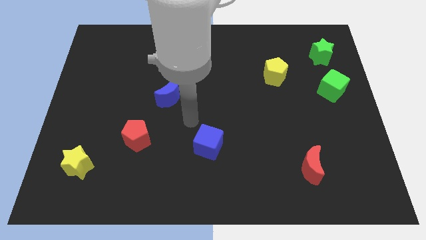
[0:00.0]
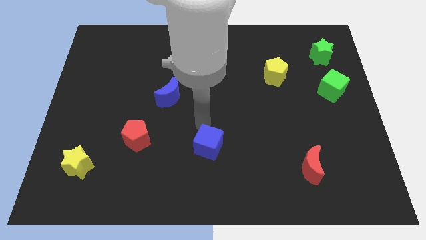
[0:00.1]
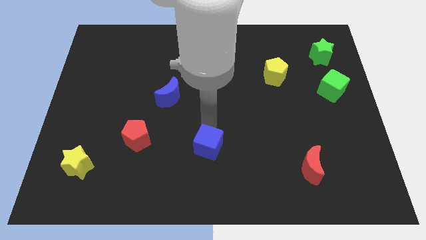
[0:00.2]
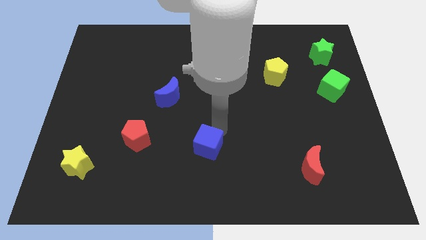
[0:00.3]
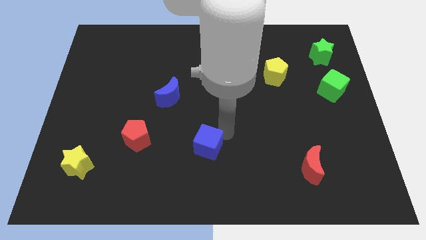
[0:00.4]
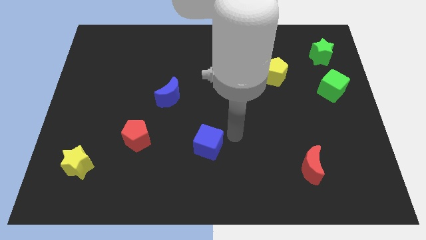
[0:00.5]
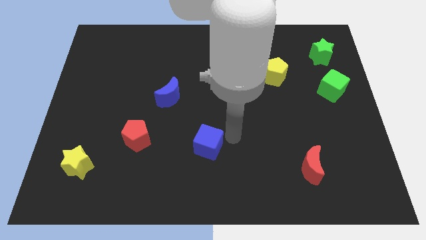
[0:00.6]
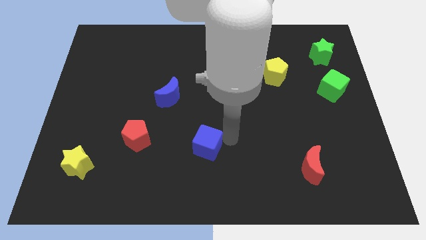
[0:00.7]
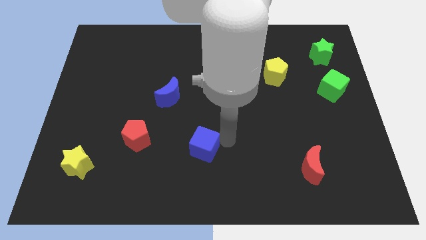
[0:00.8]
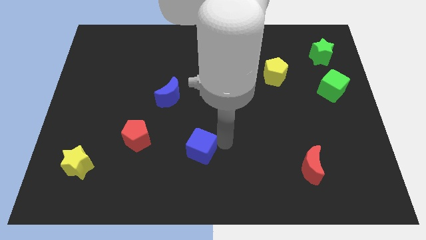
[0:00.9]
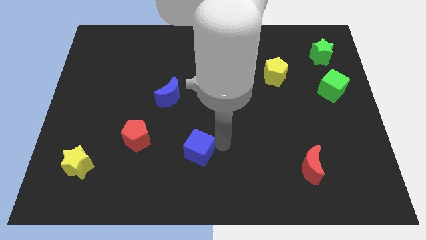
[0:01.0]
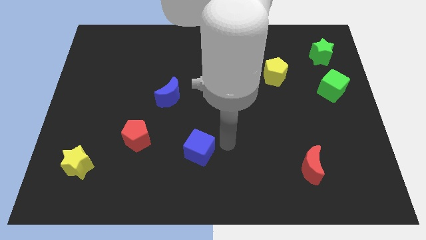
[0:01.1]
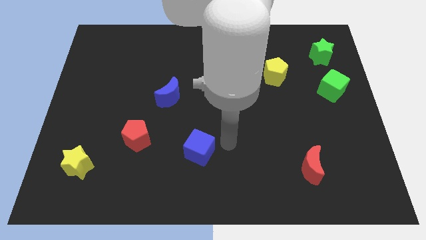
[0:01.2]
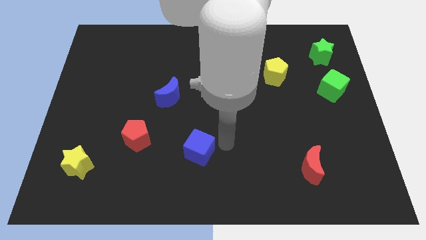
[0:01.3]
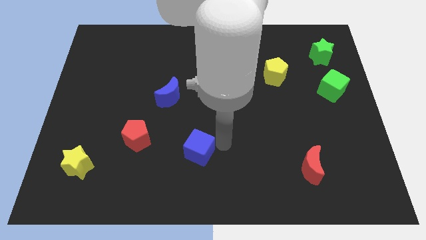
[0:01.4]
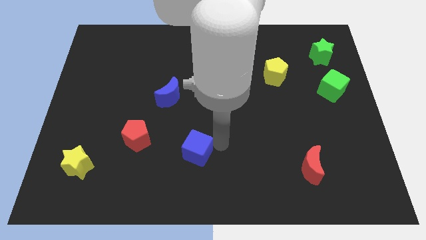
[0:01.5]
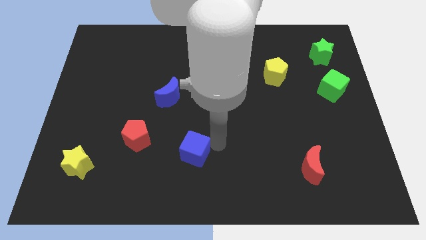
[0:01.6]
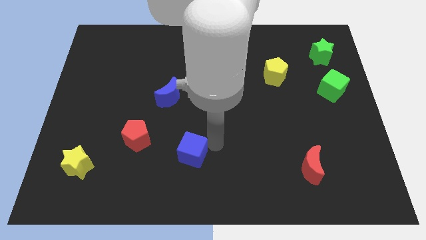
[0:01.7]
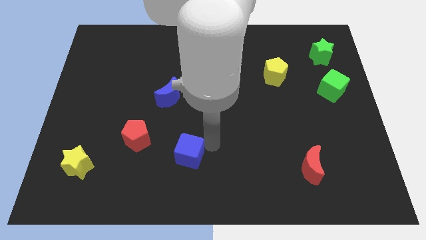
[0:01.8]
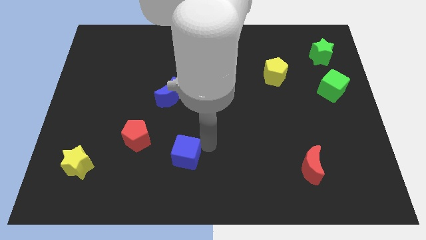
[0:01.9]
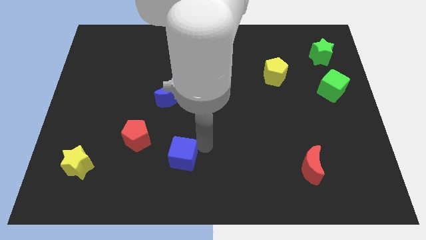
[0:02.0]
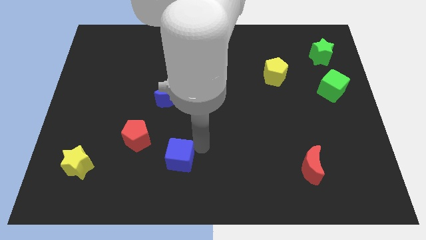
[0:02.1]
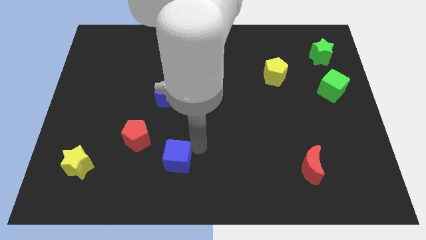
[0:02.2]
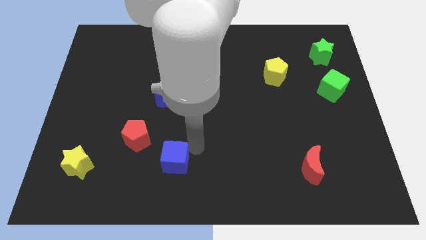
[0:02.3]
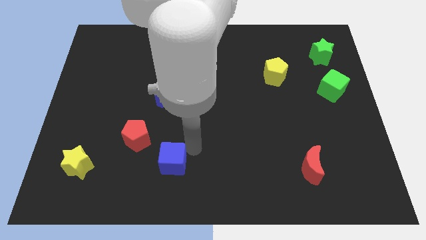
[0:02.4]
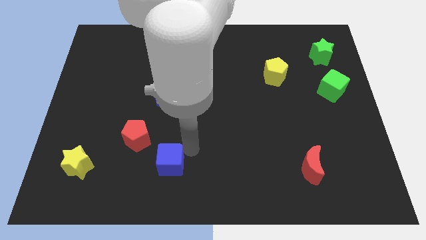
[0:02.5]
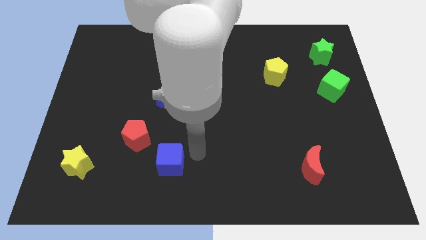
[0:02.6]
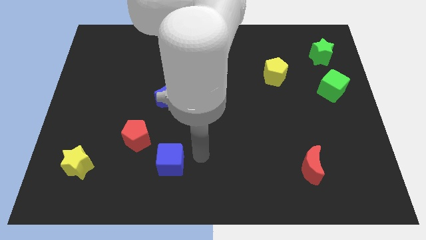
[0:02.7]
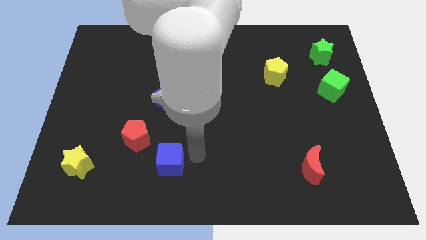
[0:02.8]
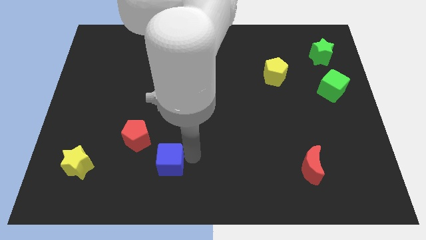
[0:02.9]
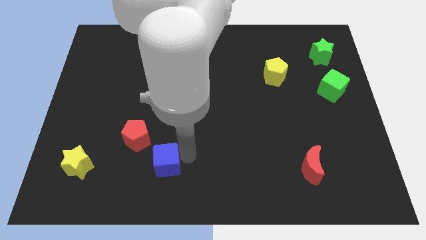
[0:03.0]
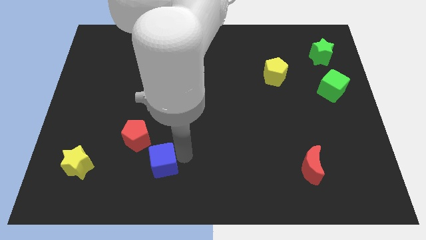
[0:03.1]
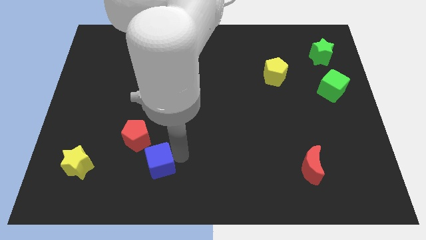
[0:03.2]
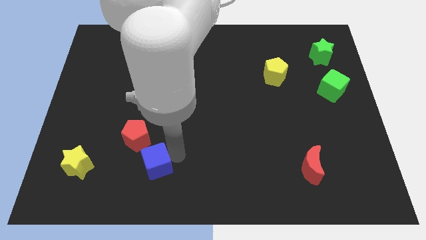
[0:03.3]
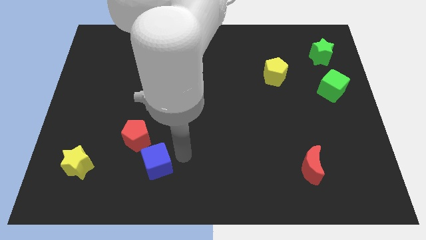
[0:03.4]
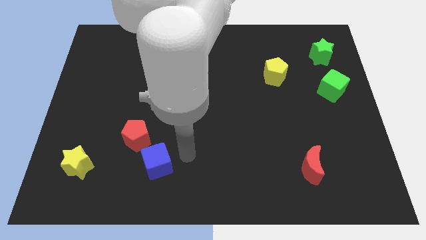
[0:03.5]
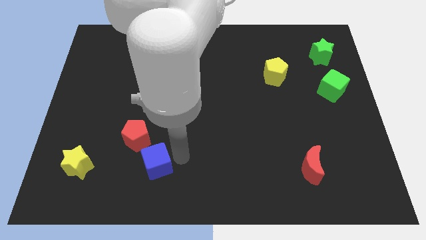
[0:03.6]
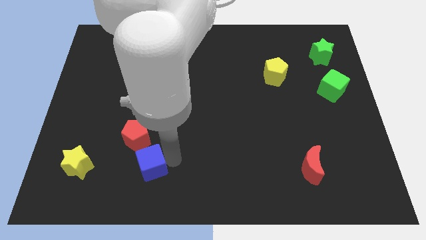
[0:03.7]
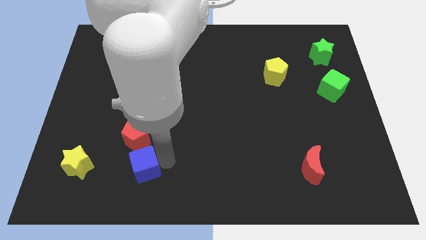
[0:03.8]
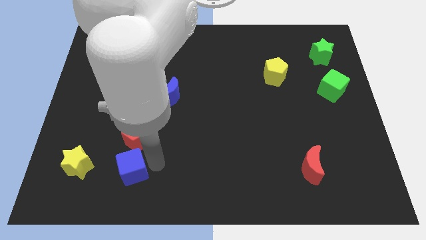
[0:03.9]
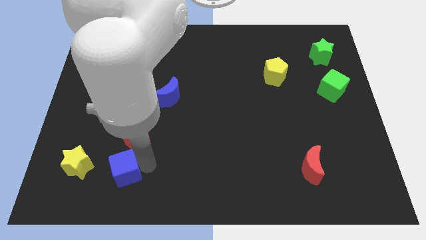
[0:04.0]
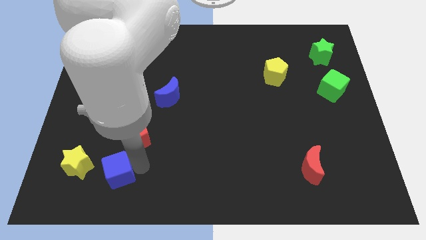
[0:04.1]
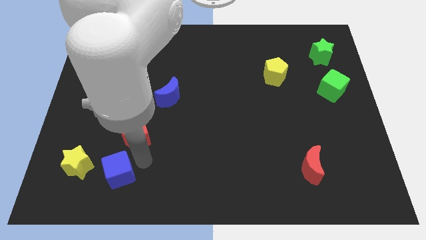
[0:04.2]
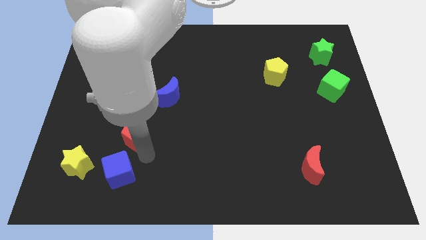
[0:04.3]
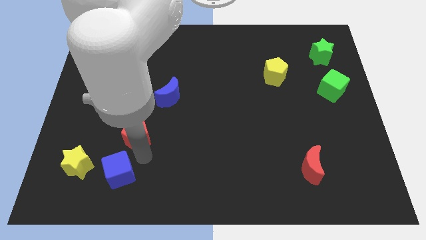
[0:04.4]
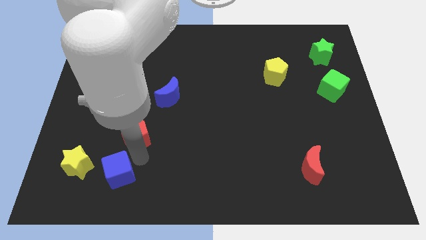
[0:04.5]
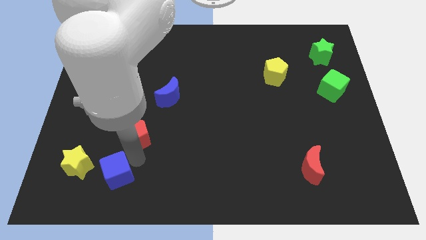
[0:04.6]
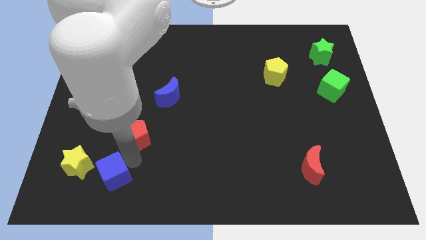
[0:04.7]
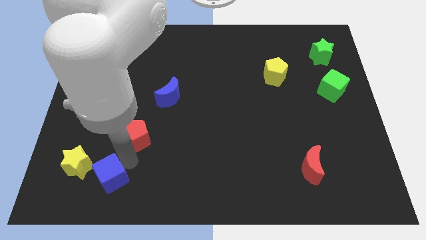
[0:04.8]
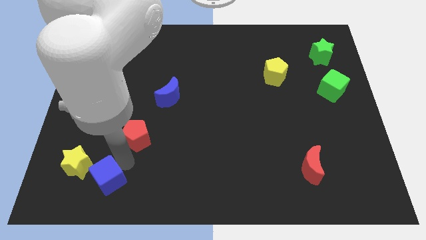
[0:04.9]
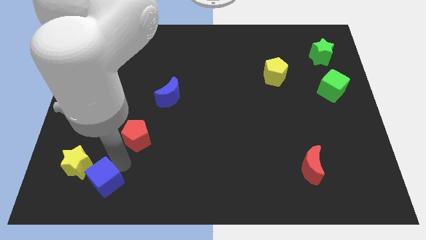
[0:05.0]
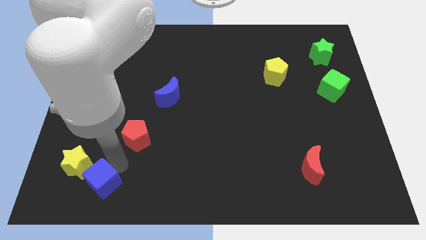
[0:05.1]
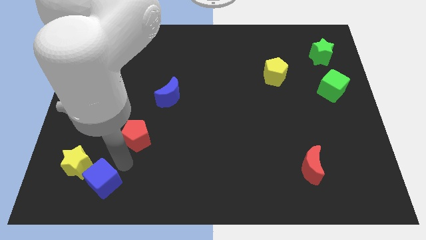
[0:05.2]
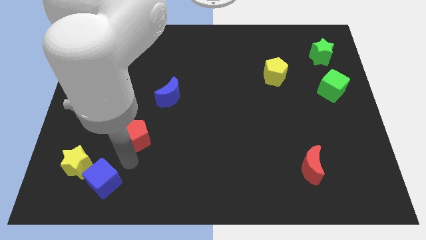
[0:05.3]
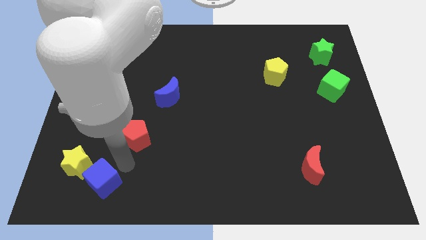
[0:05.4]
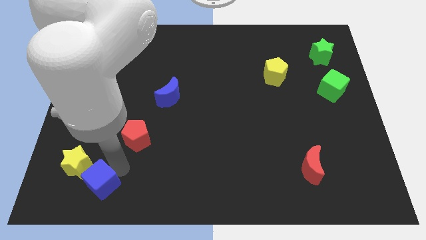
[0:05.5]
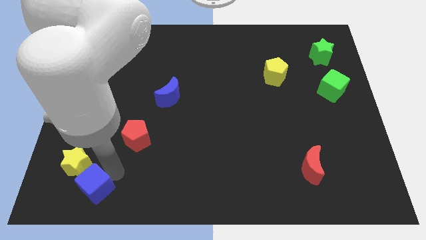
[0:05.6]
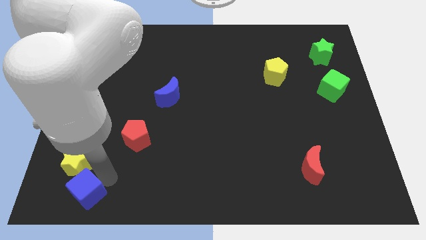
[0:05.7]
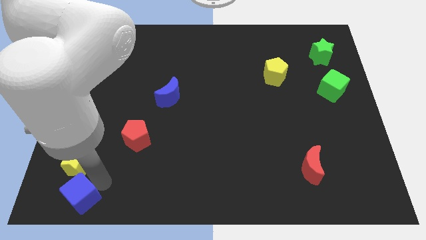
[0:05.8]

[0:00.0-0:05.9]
put the blue cube to the bottom left
